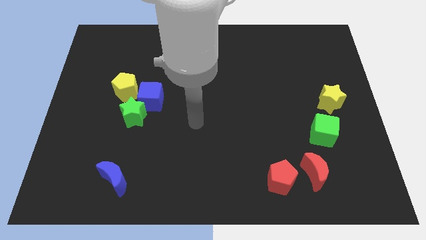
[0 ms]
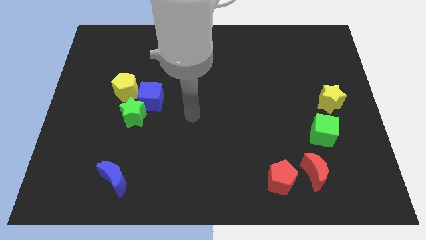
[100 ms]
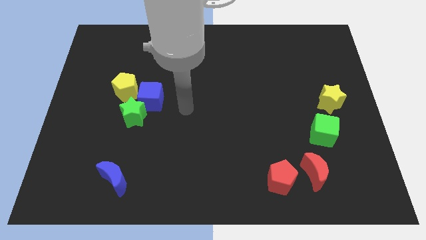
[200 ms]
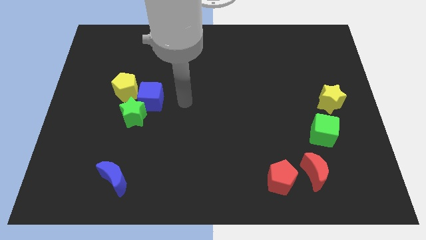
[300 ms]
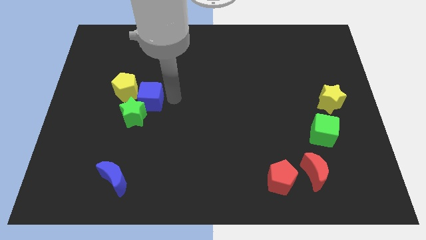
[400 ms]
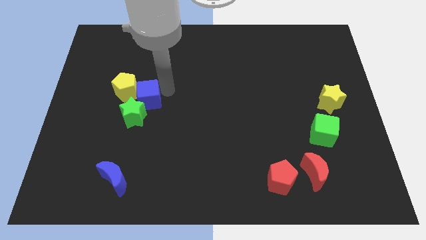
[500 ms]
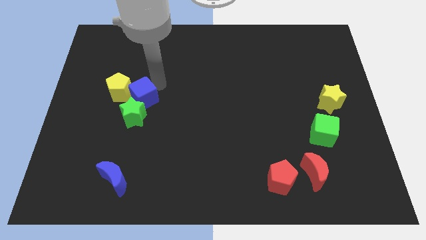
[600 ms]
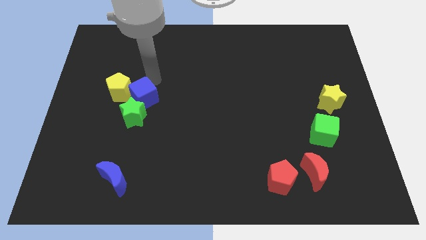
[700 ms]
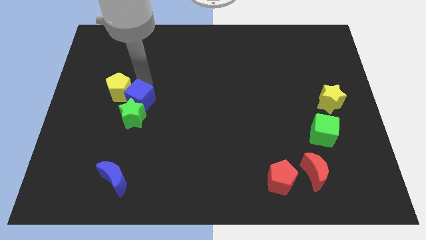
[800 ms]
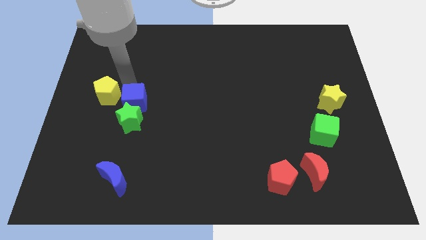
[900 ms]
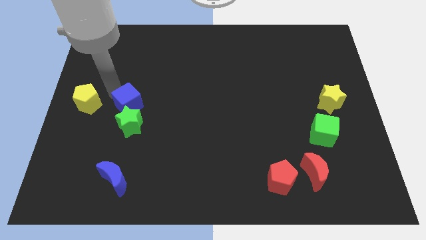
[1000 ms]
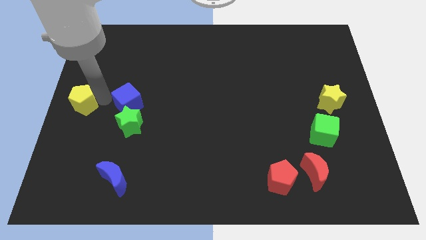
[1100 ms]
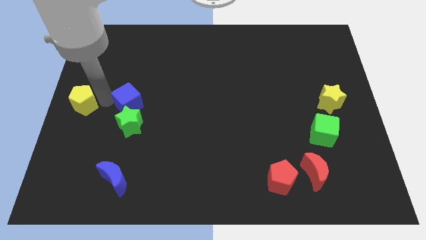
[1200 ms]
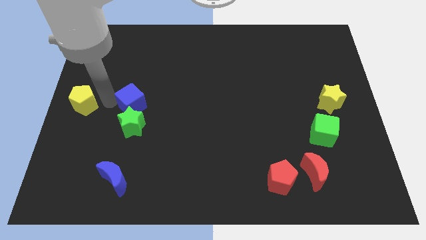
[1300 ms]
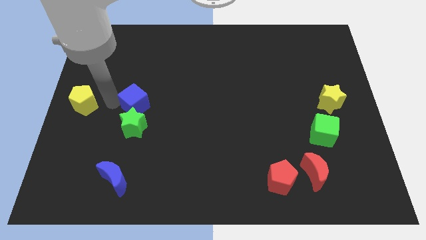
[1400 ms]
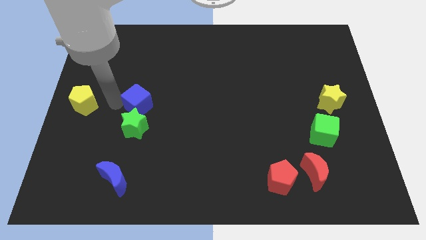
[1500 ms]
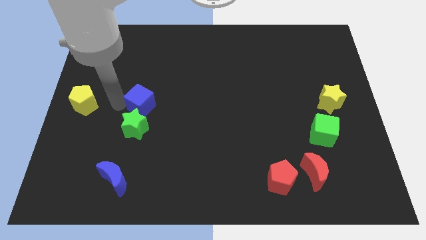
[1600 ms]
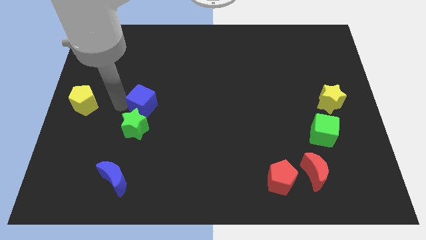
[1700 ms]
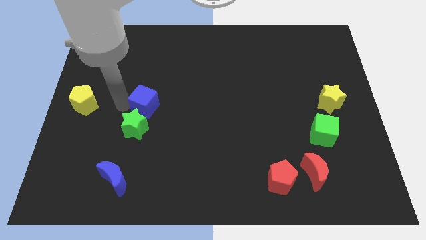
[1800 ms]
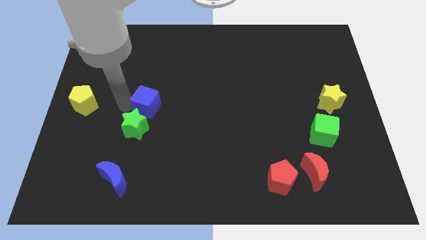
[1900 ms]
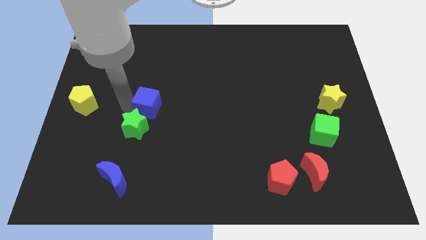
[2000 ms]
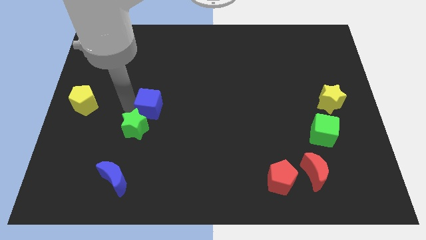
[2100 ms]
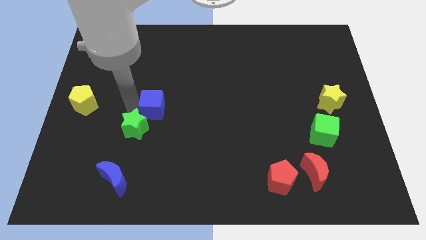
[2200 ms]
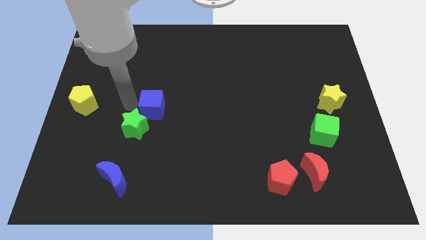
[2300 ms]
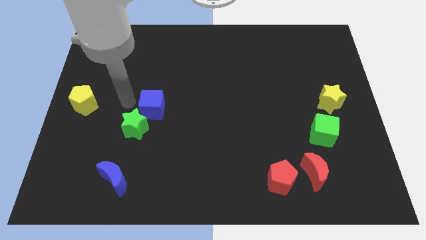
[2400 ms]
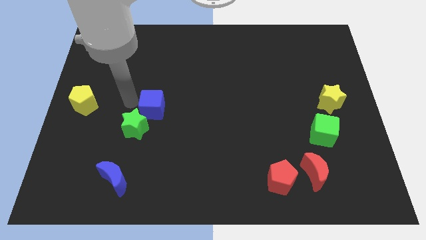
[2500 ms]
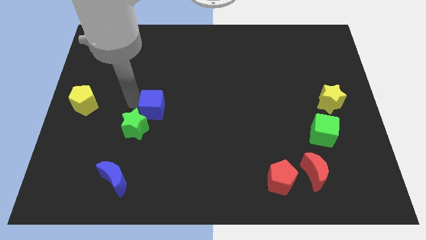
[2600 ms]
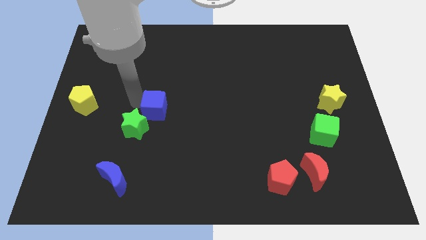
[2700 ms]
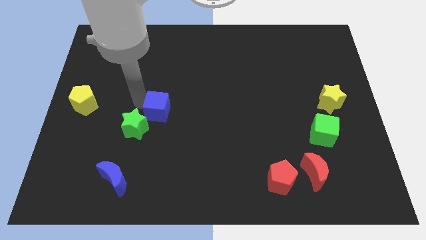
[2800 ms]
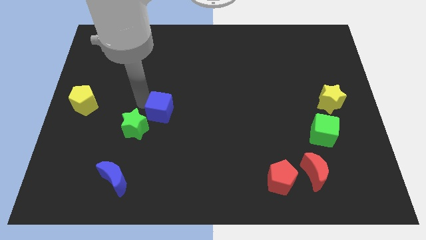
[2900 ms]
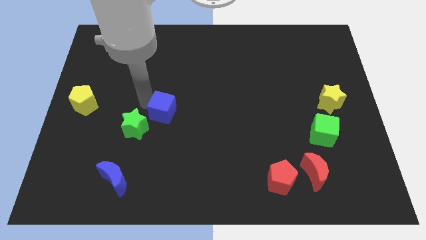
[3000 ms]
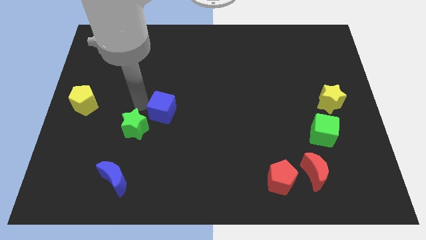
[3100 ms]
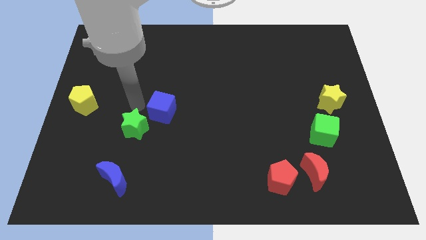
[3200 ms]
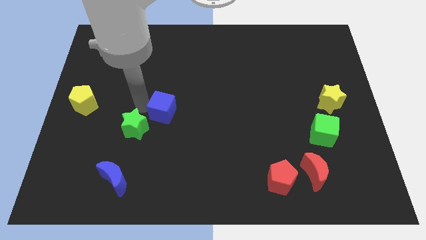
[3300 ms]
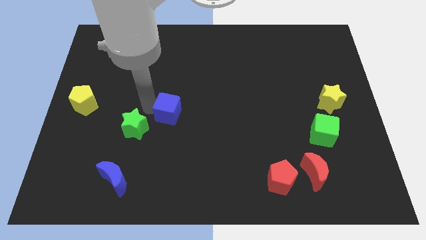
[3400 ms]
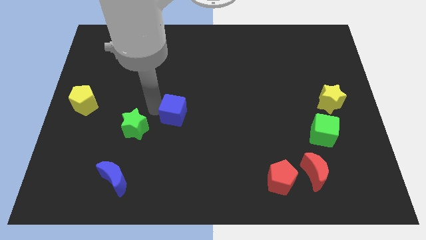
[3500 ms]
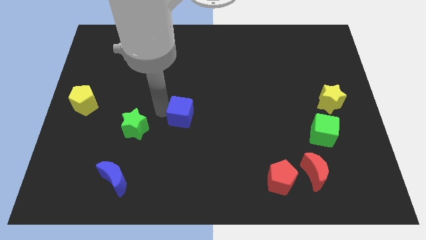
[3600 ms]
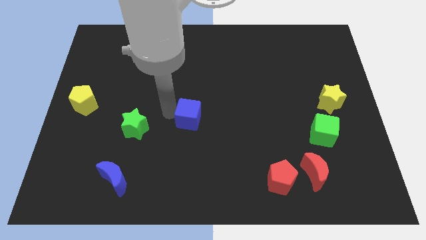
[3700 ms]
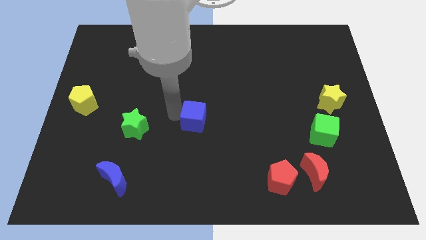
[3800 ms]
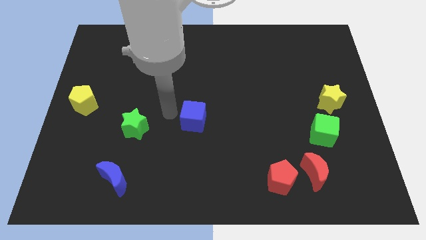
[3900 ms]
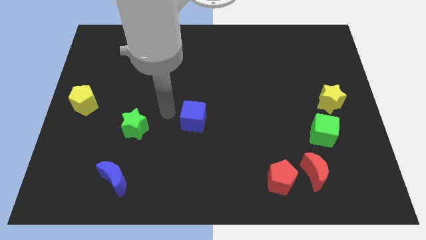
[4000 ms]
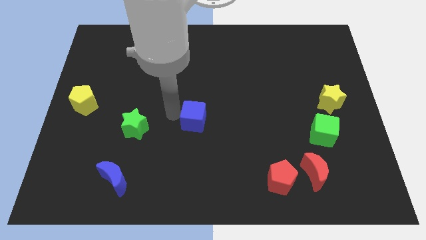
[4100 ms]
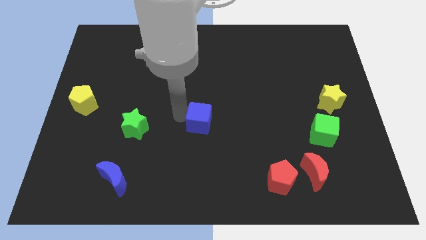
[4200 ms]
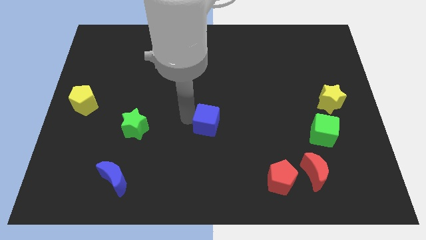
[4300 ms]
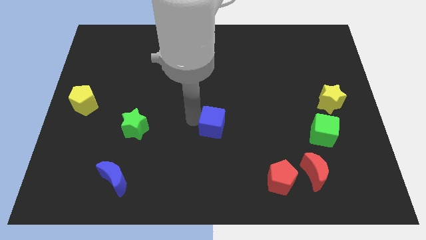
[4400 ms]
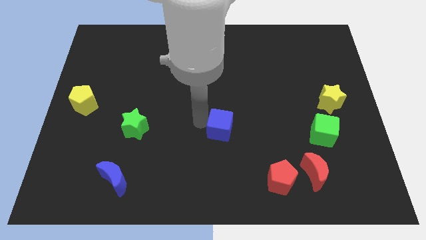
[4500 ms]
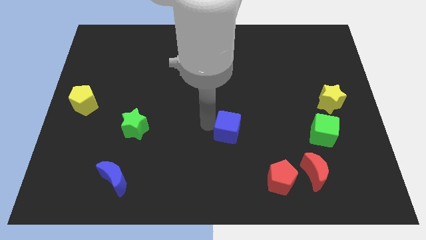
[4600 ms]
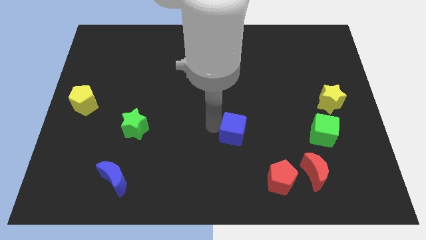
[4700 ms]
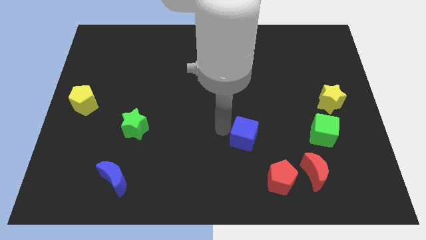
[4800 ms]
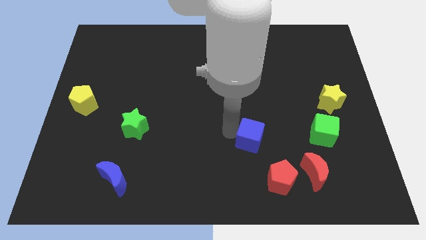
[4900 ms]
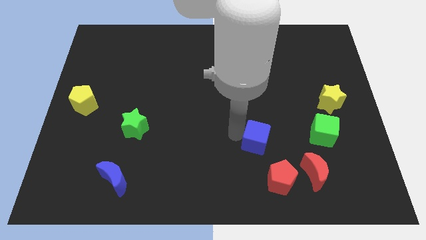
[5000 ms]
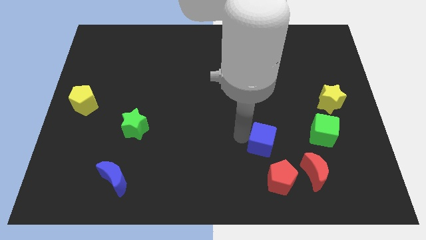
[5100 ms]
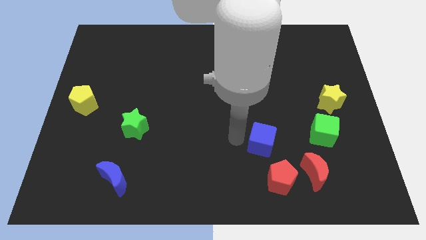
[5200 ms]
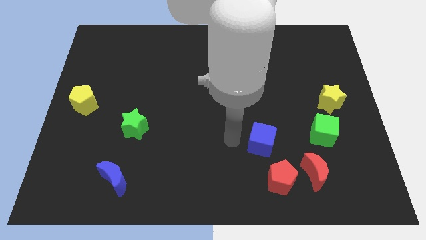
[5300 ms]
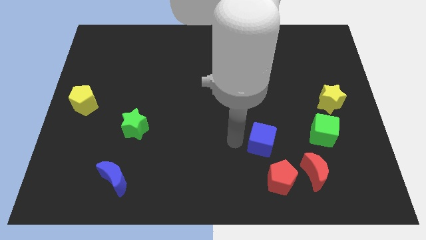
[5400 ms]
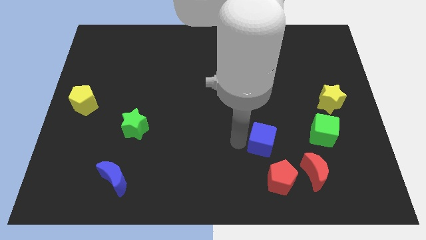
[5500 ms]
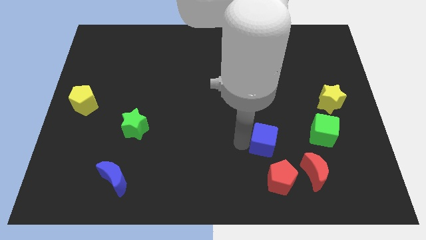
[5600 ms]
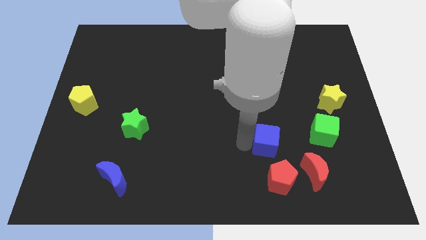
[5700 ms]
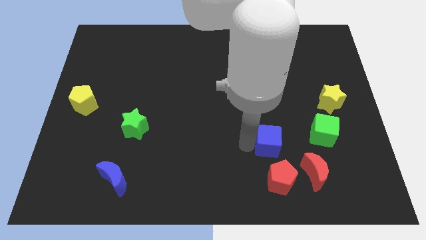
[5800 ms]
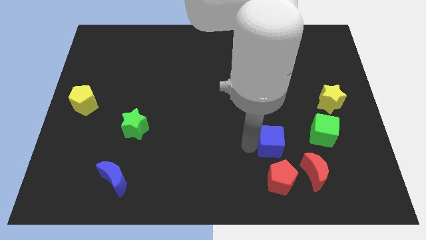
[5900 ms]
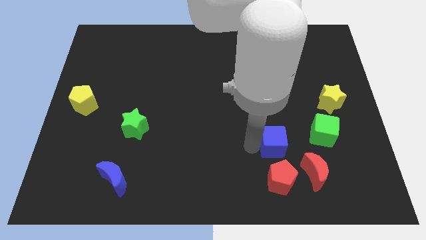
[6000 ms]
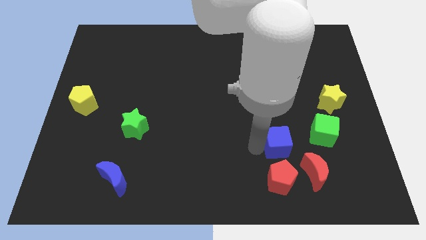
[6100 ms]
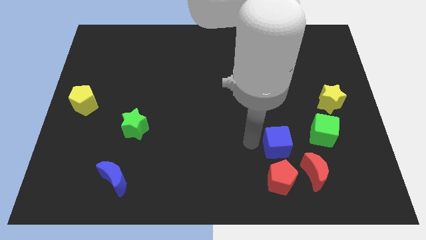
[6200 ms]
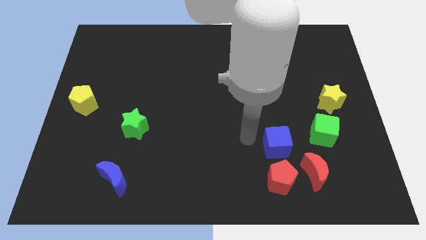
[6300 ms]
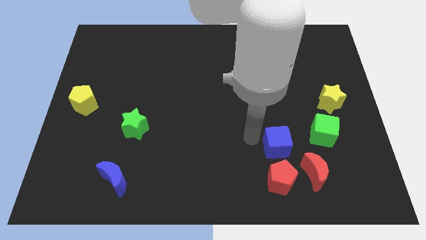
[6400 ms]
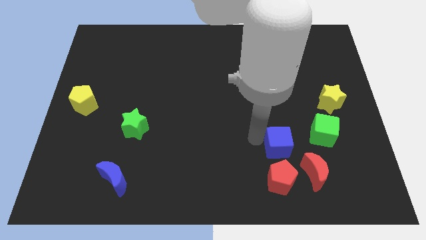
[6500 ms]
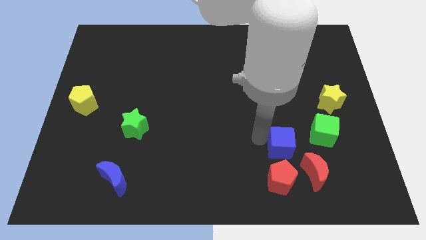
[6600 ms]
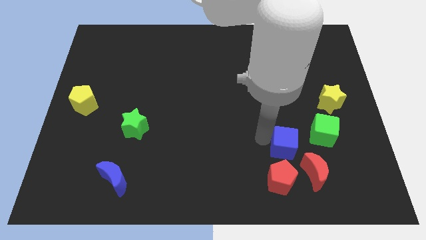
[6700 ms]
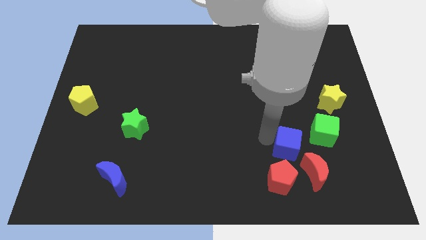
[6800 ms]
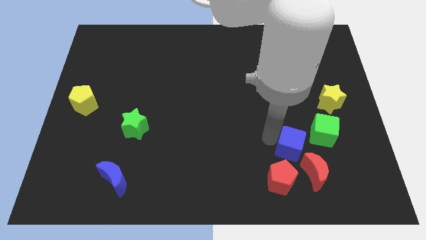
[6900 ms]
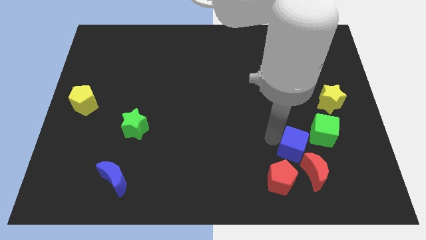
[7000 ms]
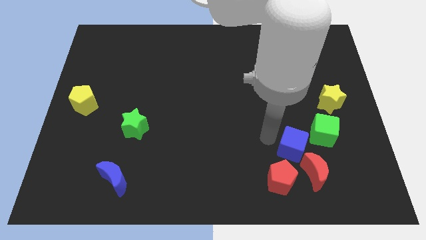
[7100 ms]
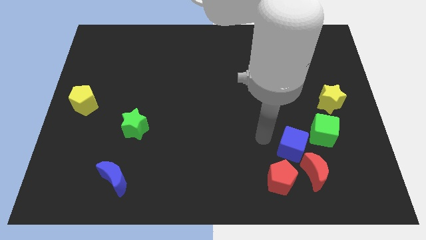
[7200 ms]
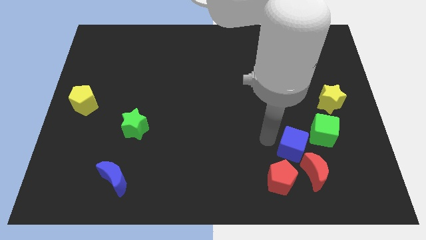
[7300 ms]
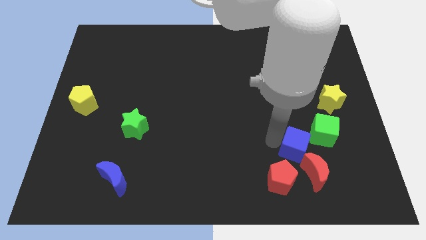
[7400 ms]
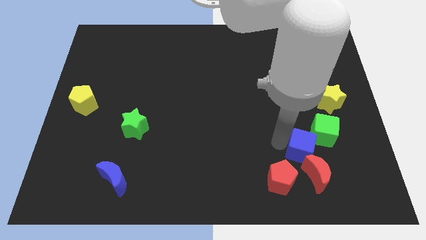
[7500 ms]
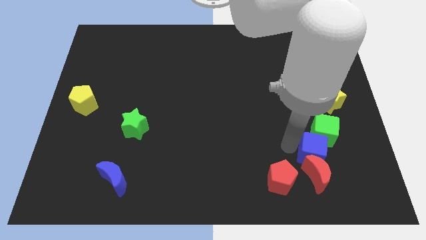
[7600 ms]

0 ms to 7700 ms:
move the blue cube diagonally up and to the right of the red moon

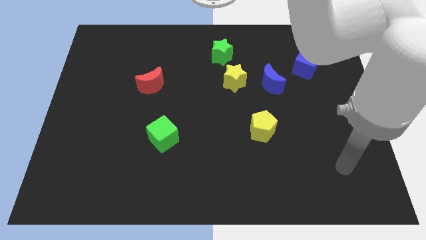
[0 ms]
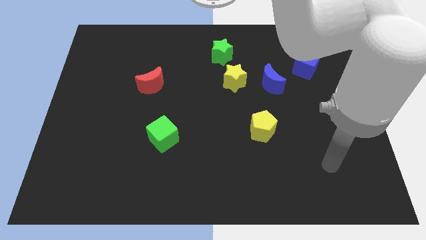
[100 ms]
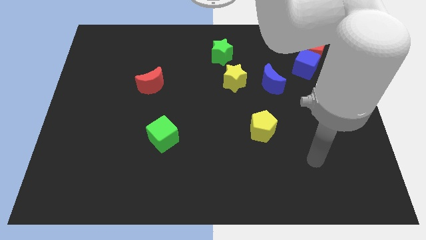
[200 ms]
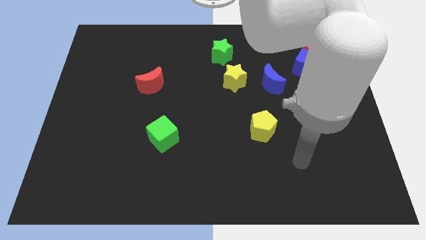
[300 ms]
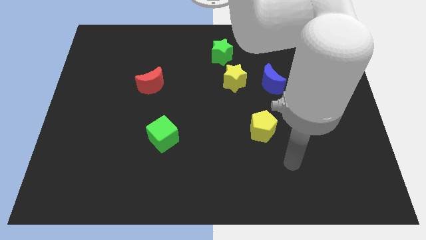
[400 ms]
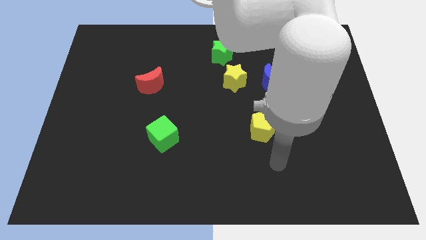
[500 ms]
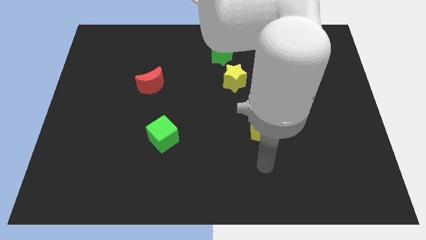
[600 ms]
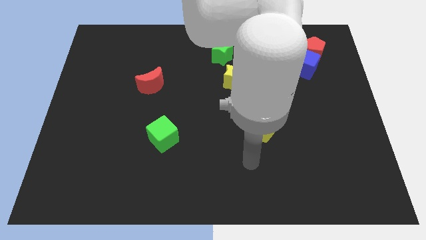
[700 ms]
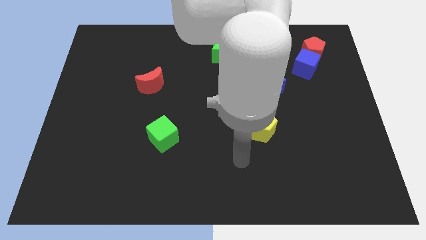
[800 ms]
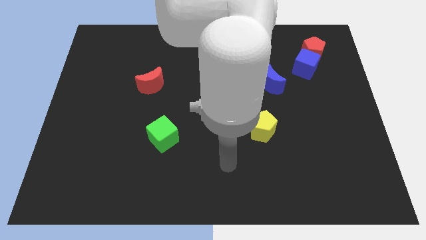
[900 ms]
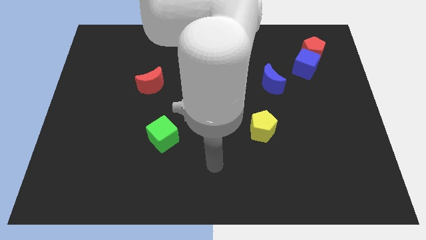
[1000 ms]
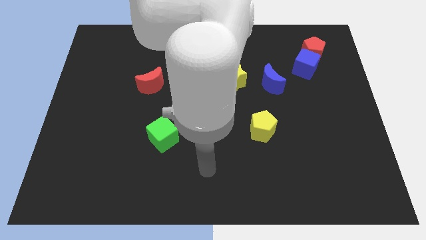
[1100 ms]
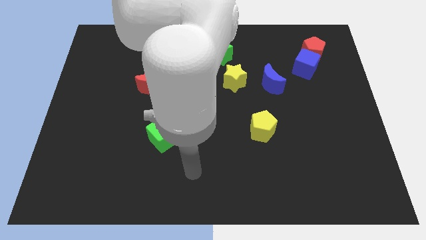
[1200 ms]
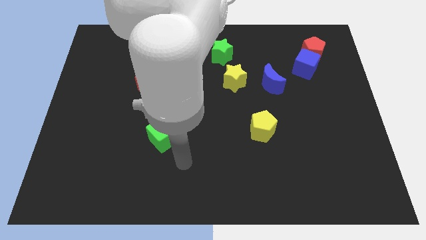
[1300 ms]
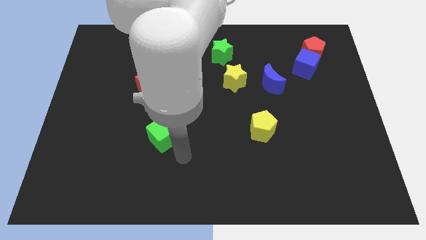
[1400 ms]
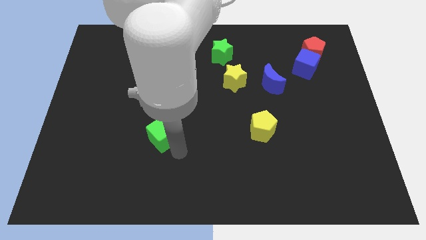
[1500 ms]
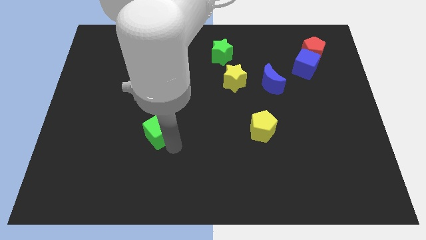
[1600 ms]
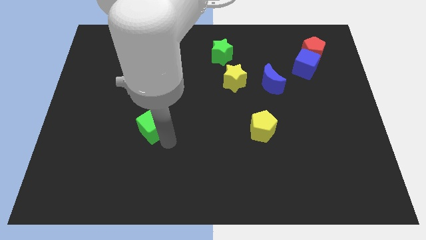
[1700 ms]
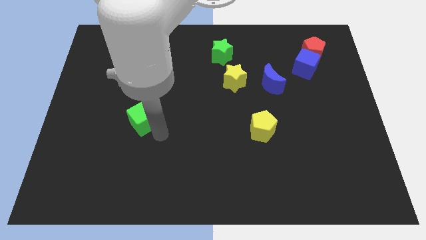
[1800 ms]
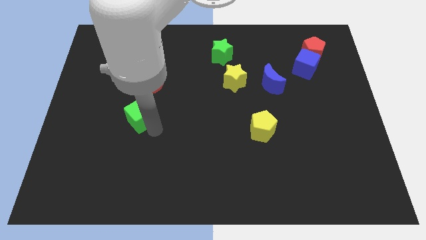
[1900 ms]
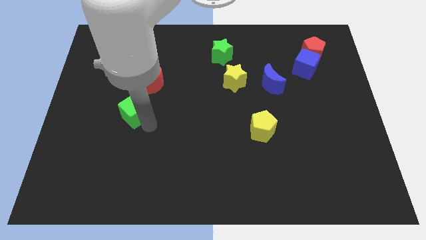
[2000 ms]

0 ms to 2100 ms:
move the green cube to the bottom left of the red moon
